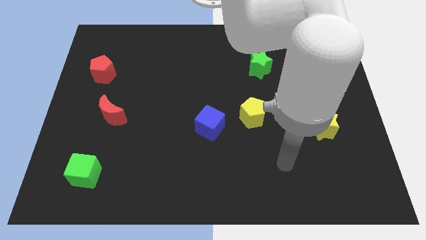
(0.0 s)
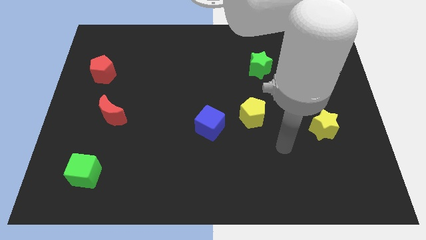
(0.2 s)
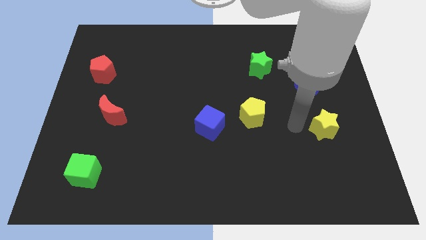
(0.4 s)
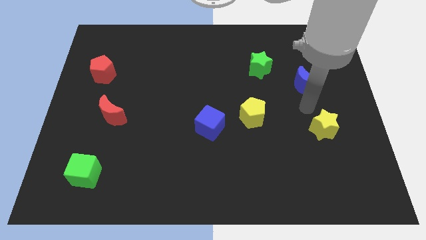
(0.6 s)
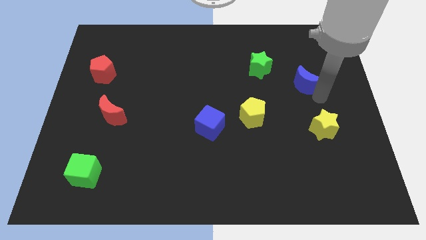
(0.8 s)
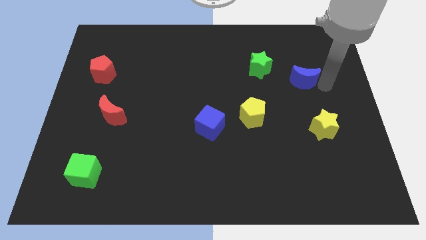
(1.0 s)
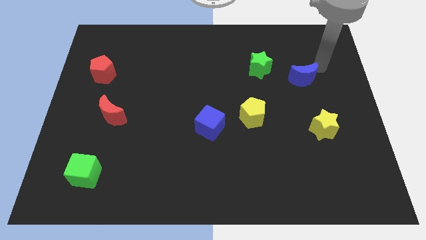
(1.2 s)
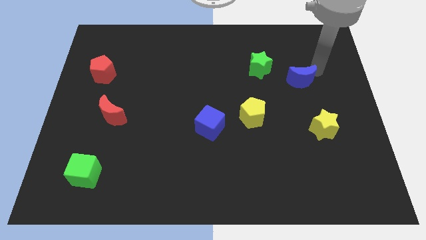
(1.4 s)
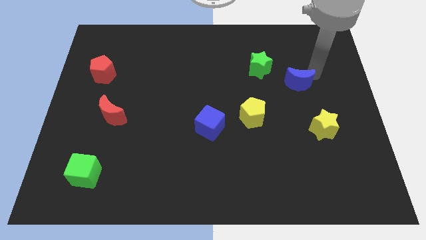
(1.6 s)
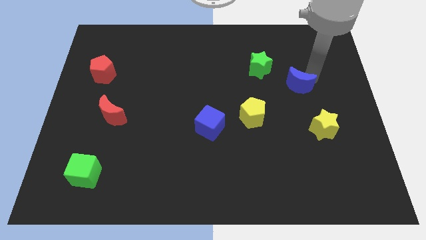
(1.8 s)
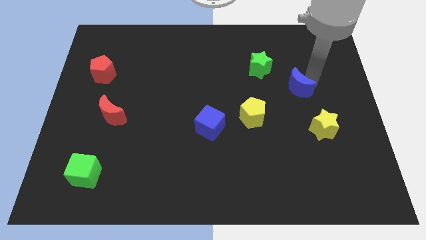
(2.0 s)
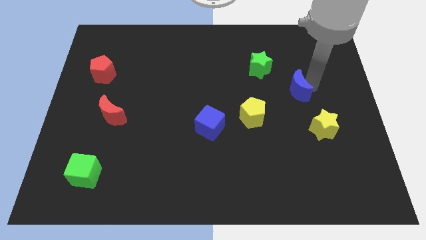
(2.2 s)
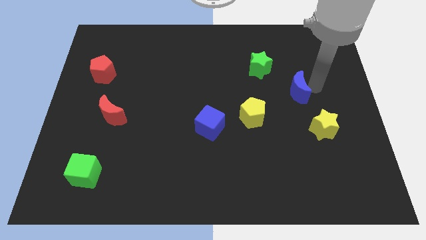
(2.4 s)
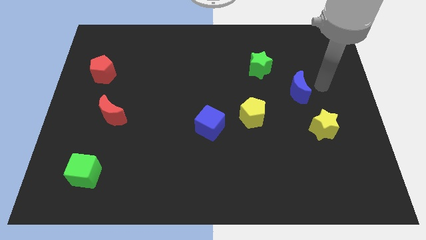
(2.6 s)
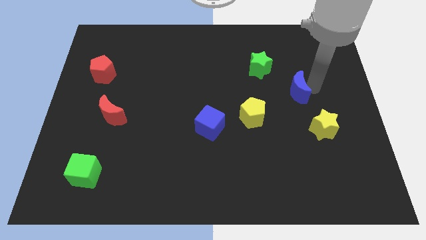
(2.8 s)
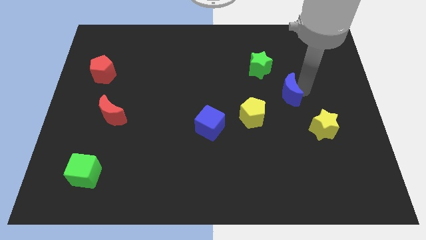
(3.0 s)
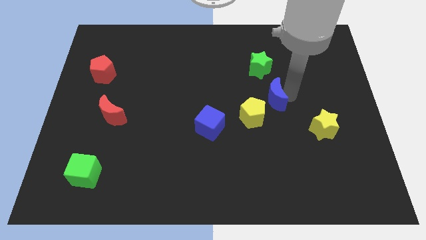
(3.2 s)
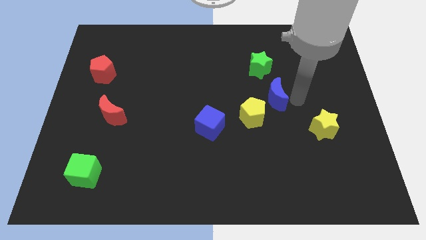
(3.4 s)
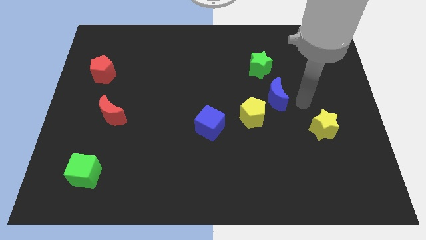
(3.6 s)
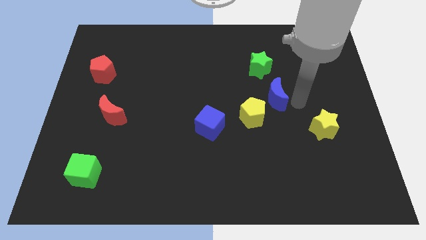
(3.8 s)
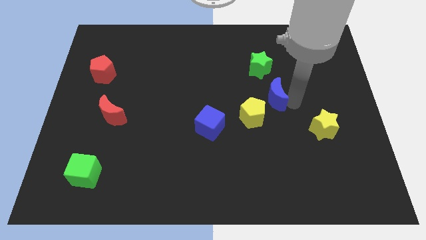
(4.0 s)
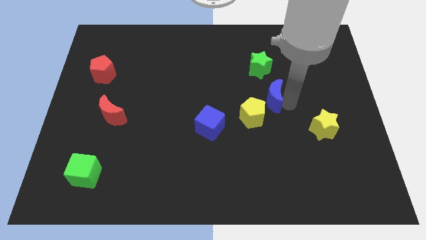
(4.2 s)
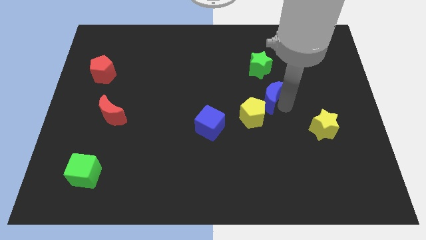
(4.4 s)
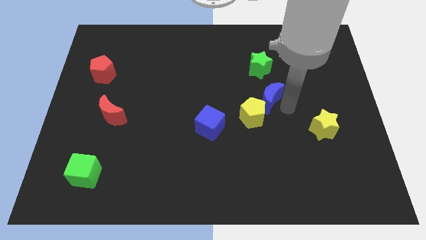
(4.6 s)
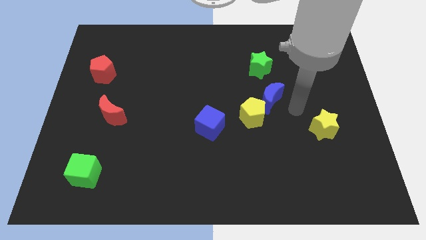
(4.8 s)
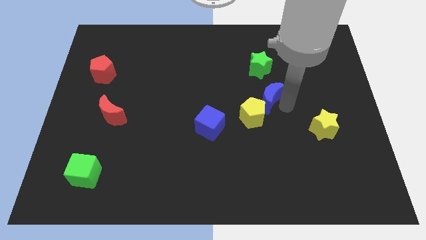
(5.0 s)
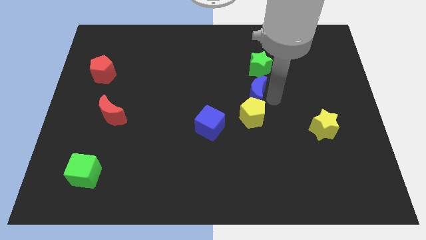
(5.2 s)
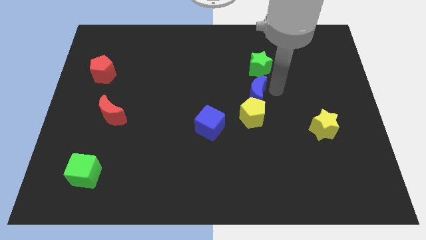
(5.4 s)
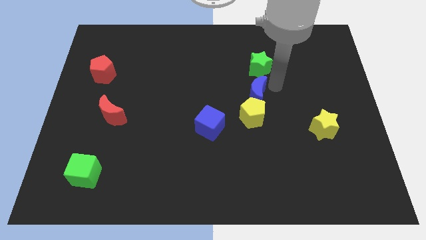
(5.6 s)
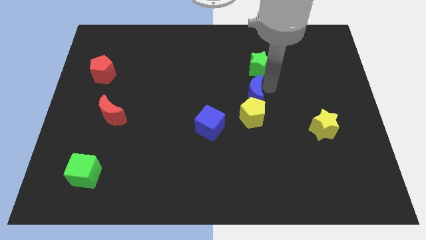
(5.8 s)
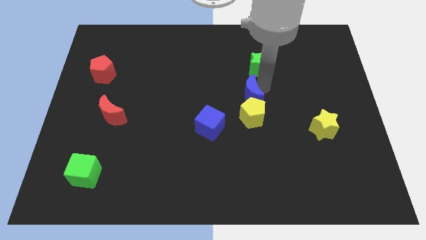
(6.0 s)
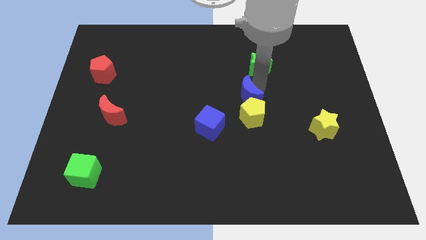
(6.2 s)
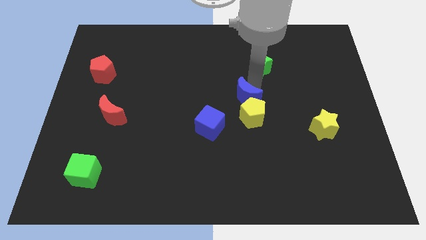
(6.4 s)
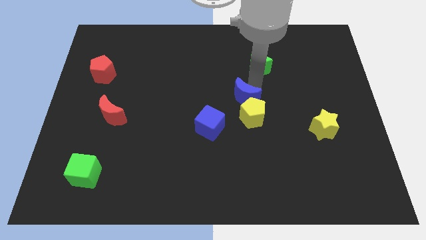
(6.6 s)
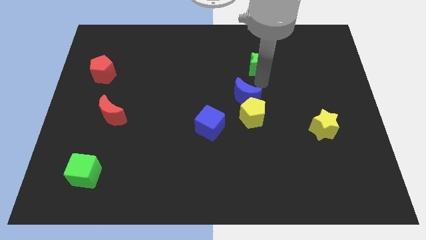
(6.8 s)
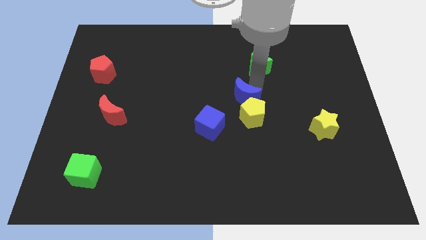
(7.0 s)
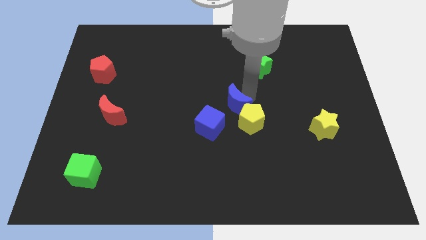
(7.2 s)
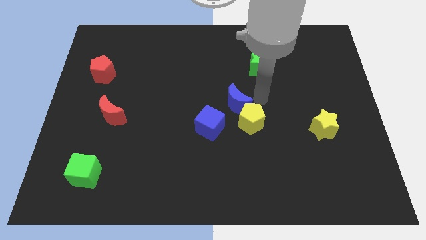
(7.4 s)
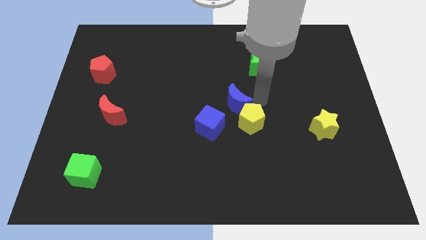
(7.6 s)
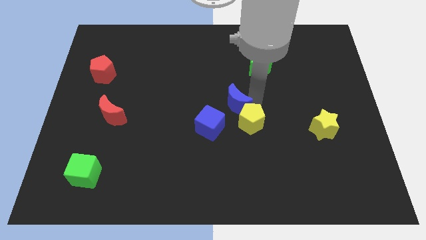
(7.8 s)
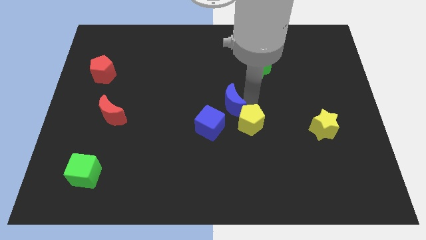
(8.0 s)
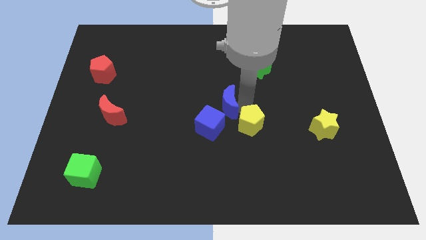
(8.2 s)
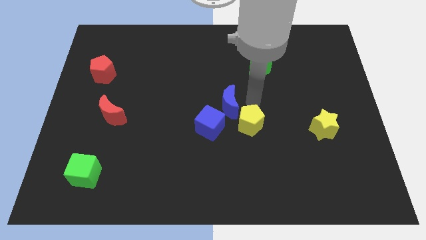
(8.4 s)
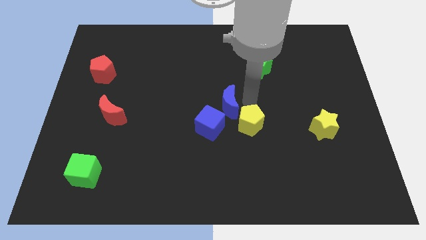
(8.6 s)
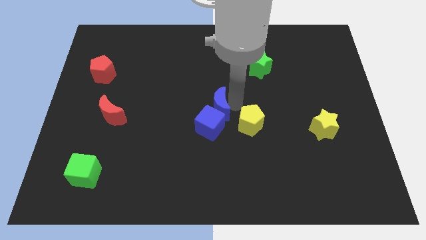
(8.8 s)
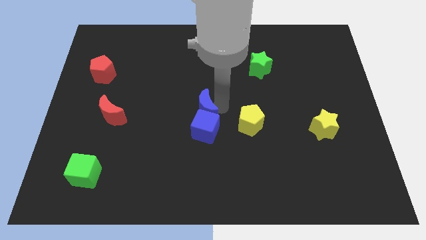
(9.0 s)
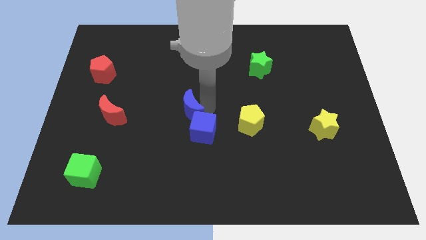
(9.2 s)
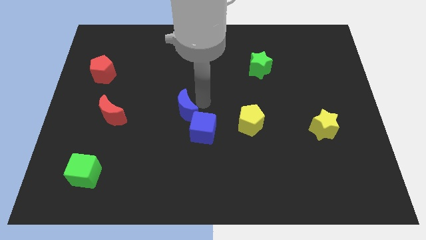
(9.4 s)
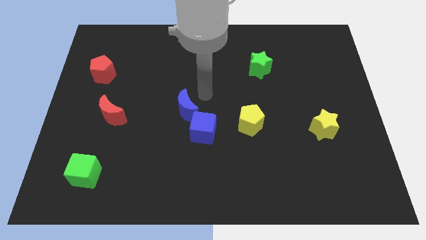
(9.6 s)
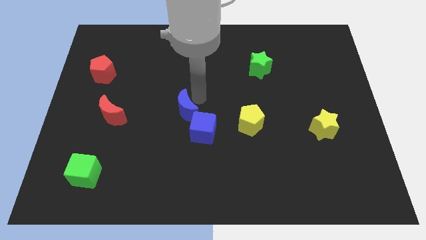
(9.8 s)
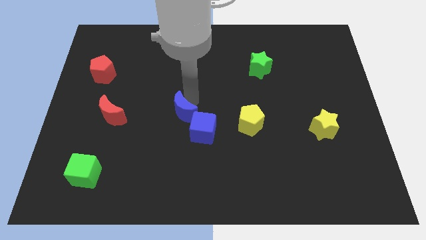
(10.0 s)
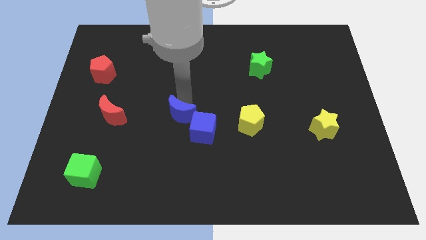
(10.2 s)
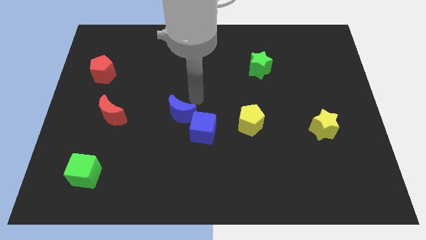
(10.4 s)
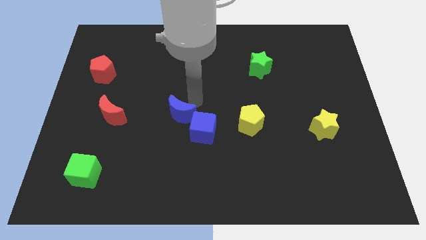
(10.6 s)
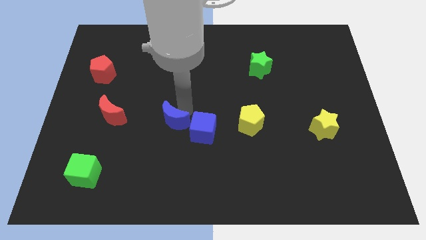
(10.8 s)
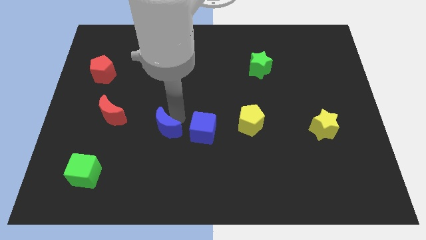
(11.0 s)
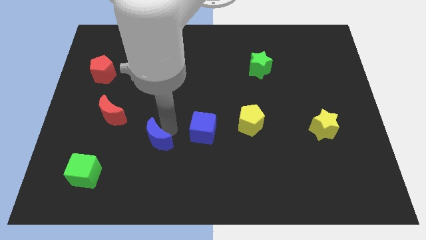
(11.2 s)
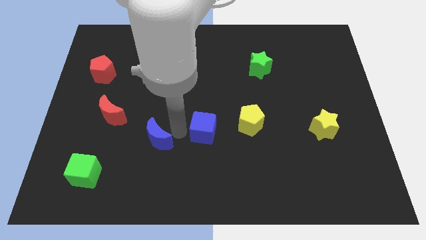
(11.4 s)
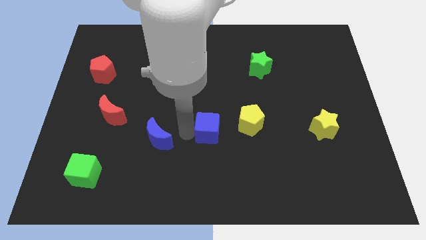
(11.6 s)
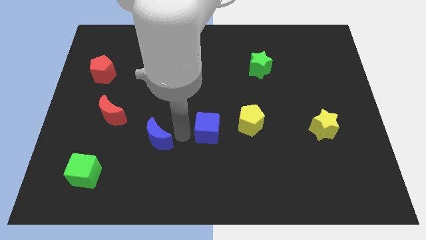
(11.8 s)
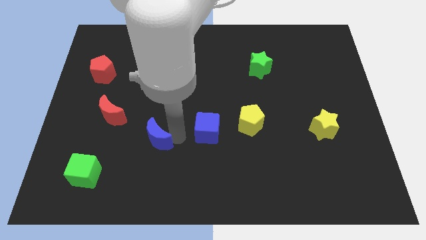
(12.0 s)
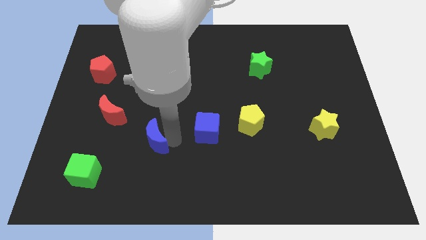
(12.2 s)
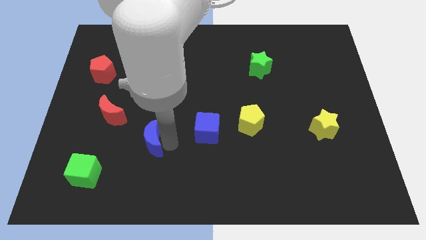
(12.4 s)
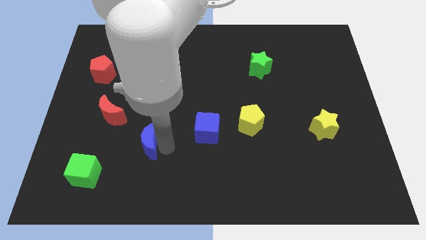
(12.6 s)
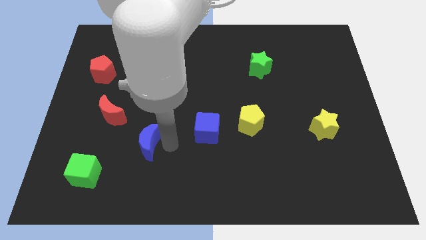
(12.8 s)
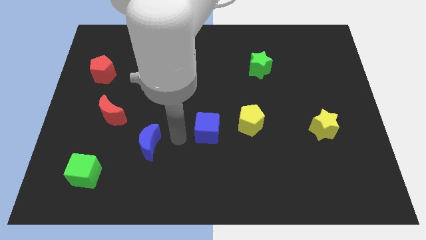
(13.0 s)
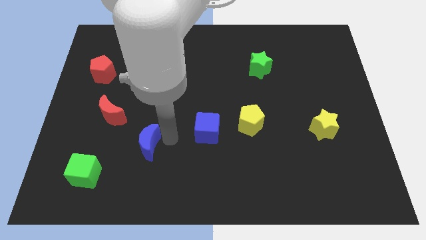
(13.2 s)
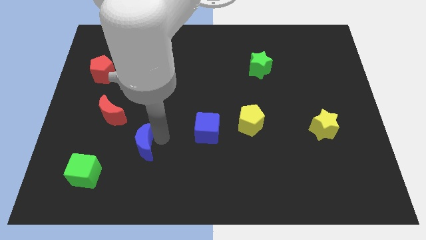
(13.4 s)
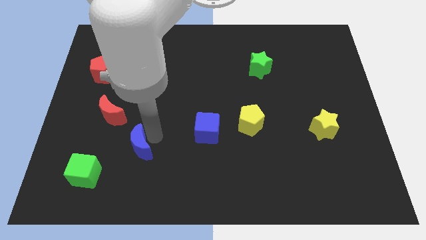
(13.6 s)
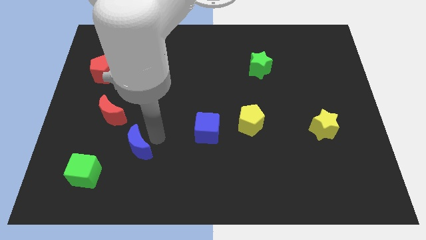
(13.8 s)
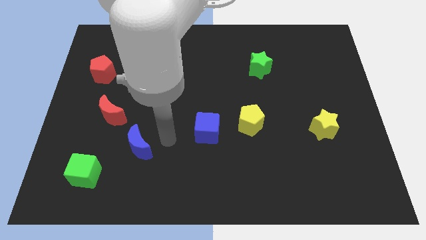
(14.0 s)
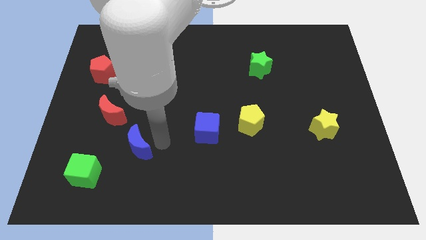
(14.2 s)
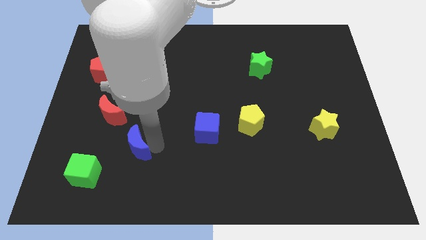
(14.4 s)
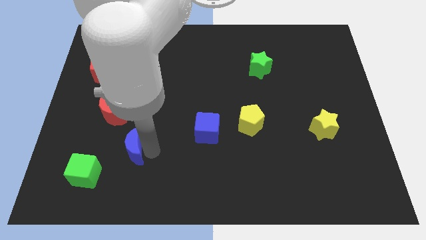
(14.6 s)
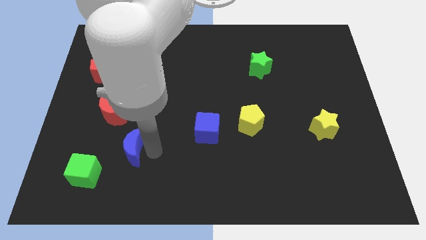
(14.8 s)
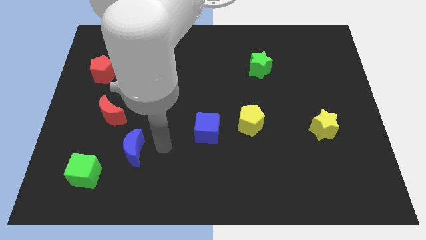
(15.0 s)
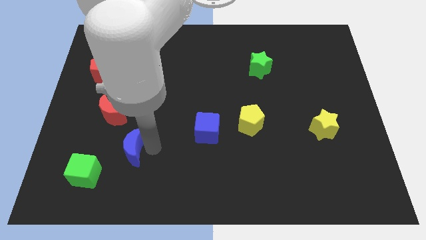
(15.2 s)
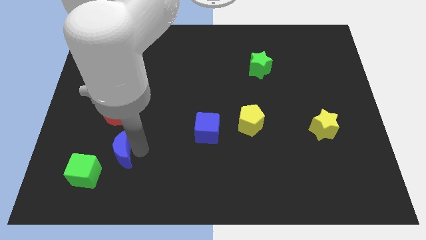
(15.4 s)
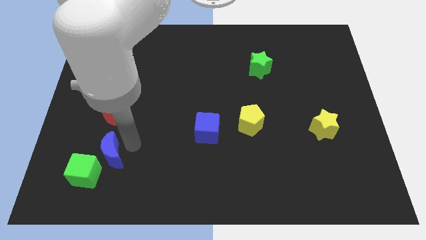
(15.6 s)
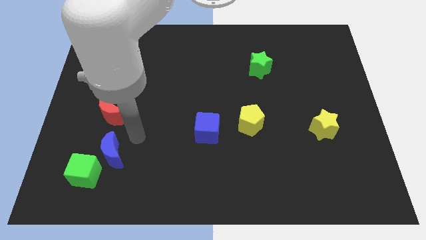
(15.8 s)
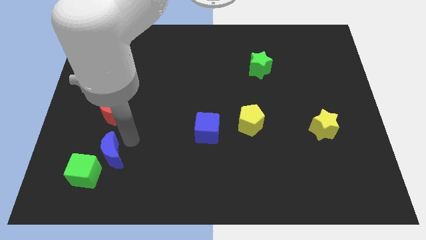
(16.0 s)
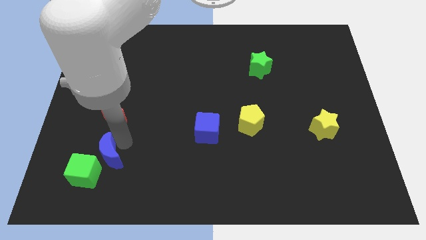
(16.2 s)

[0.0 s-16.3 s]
push the blue moon next to the green cube
